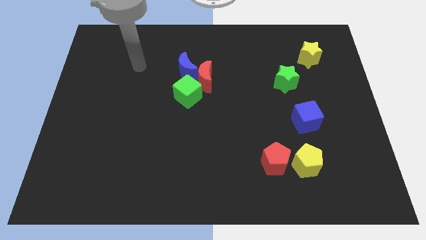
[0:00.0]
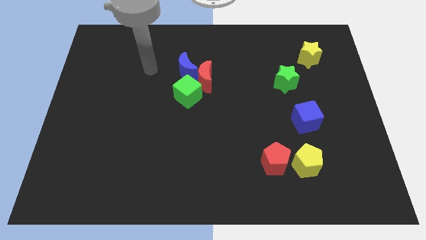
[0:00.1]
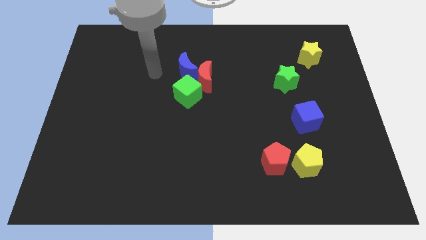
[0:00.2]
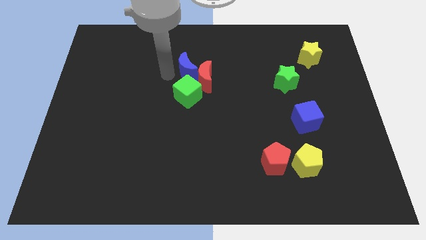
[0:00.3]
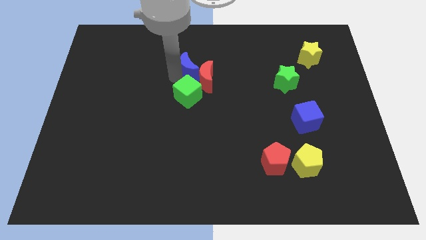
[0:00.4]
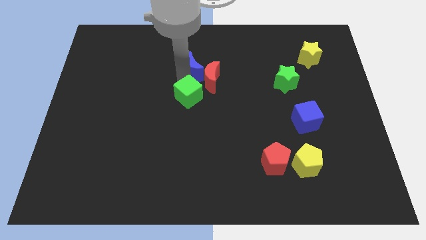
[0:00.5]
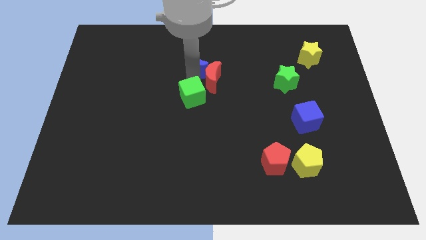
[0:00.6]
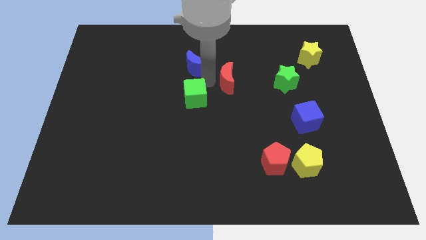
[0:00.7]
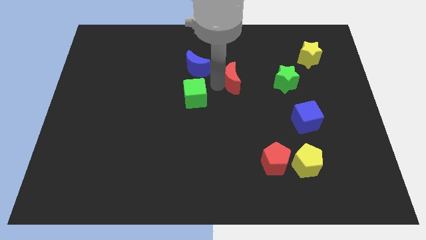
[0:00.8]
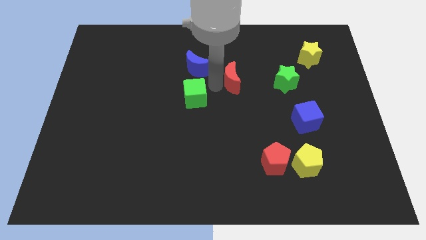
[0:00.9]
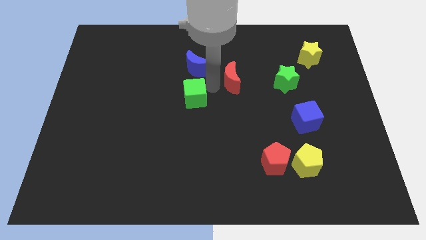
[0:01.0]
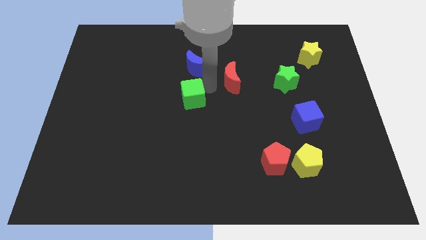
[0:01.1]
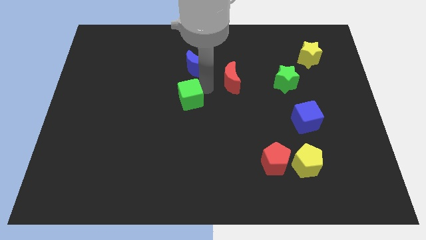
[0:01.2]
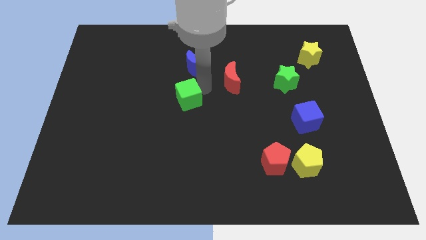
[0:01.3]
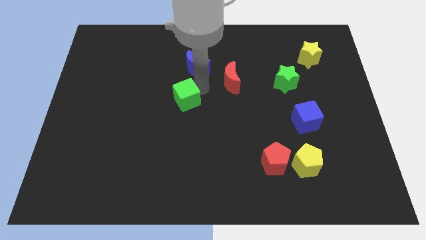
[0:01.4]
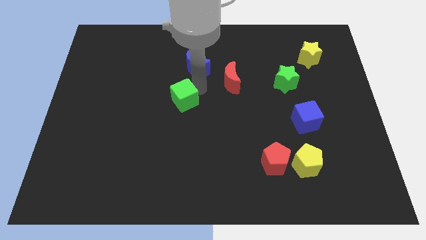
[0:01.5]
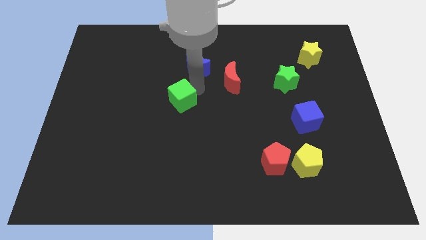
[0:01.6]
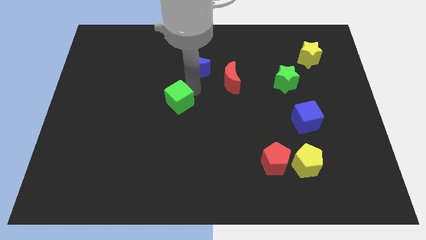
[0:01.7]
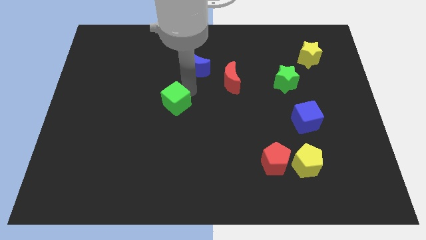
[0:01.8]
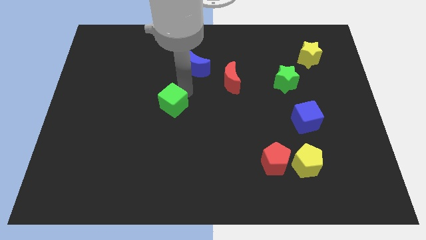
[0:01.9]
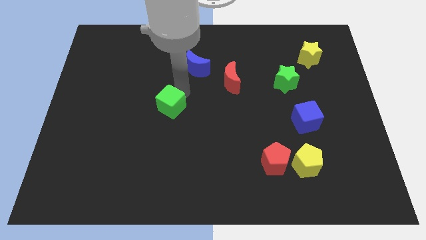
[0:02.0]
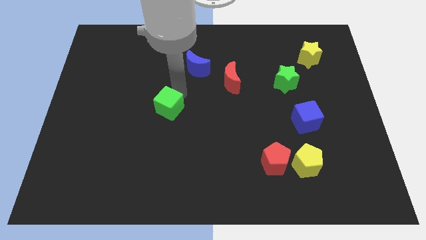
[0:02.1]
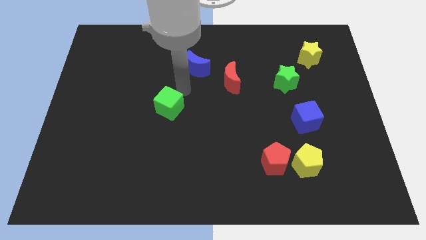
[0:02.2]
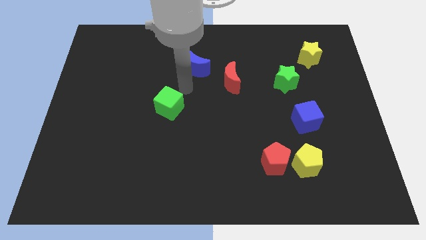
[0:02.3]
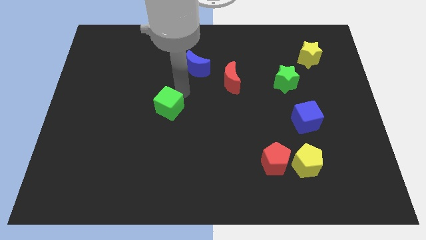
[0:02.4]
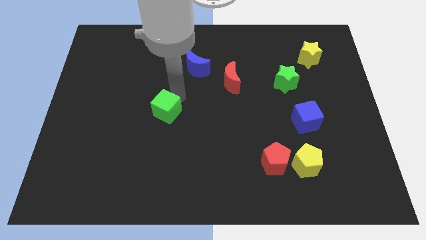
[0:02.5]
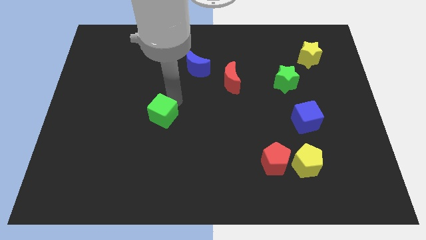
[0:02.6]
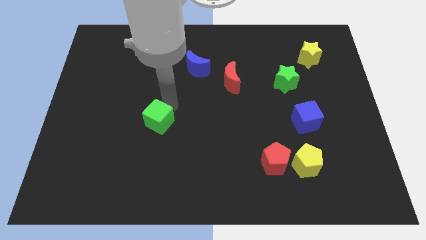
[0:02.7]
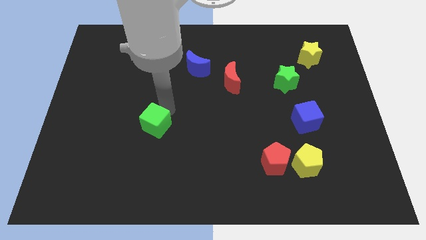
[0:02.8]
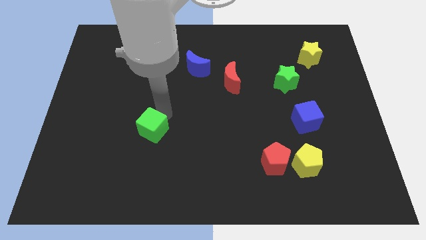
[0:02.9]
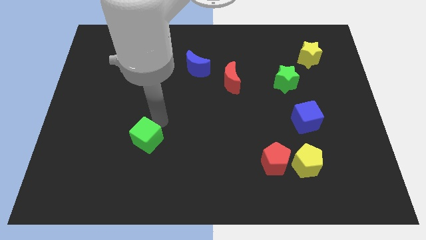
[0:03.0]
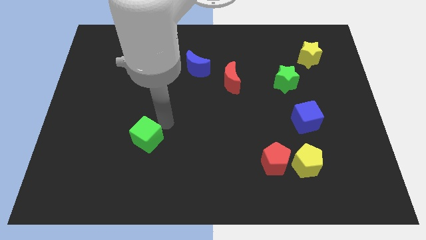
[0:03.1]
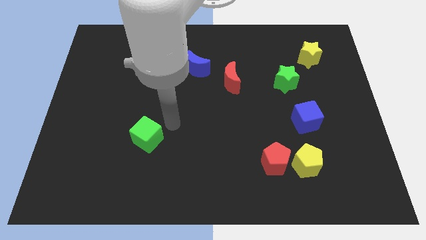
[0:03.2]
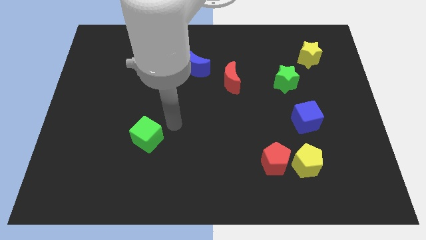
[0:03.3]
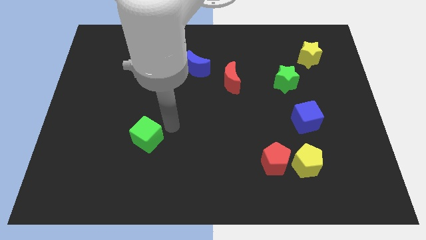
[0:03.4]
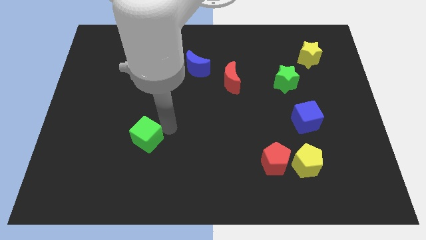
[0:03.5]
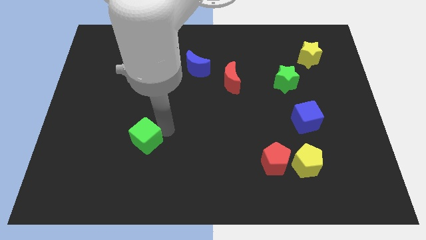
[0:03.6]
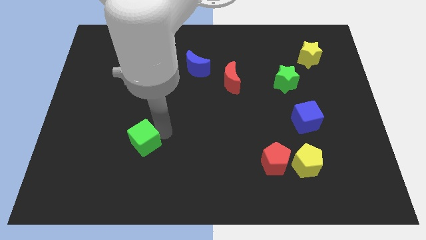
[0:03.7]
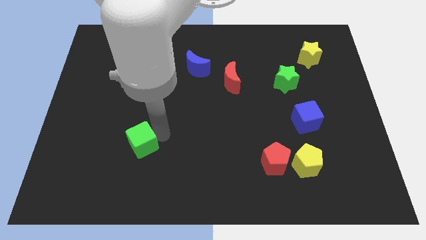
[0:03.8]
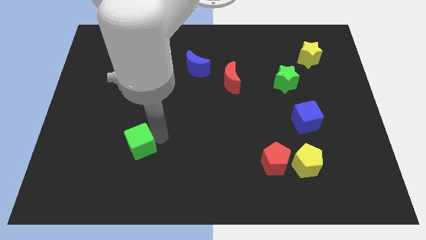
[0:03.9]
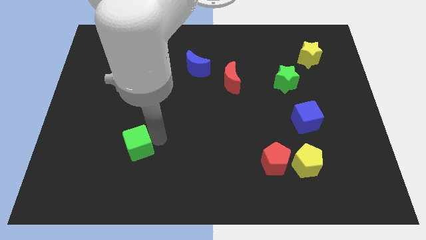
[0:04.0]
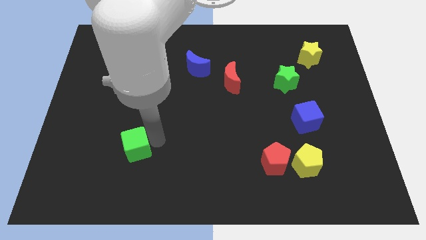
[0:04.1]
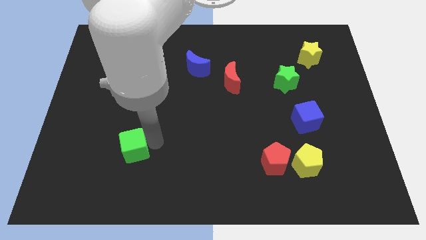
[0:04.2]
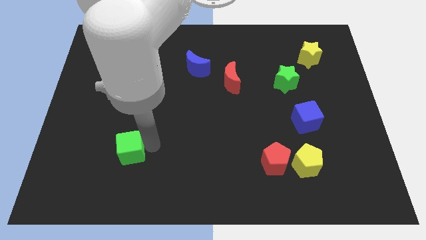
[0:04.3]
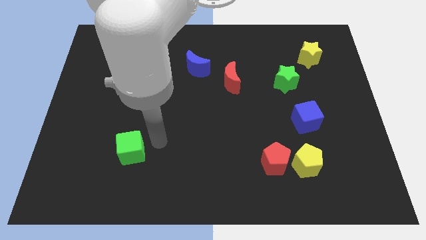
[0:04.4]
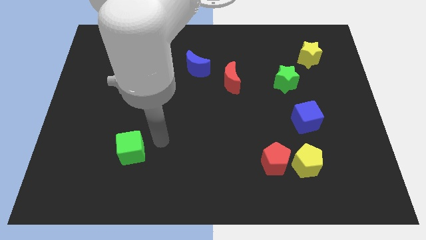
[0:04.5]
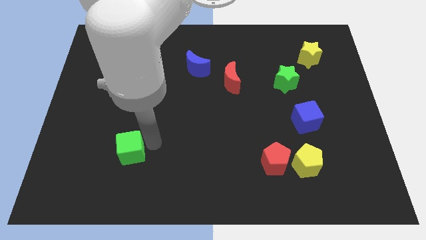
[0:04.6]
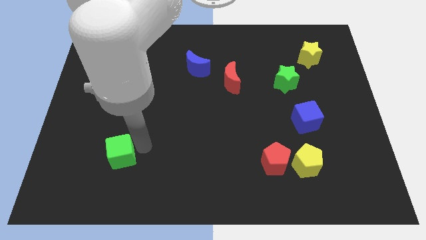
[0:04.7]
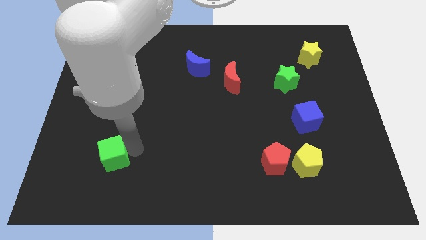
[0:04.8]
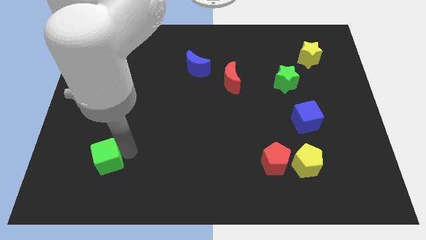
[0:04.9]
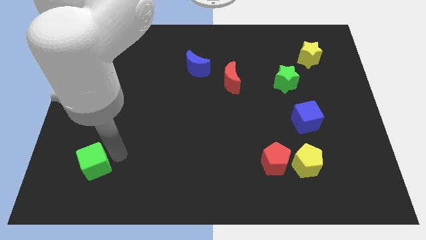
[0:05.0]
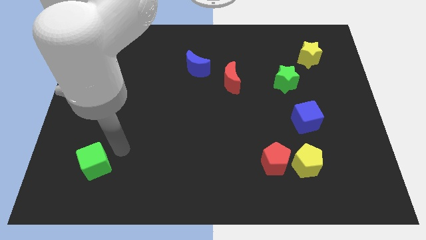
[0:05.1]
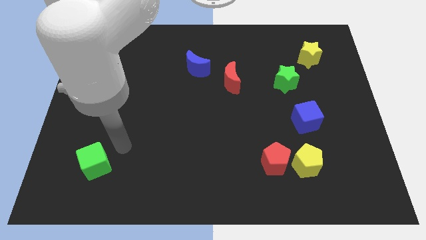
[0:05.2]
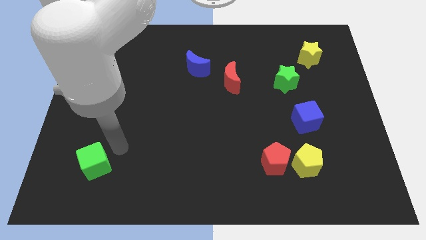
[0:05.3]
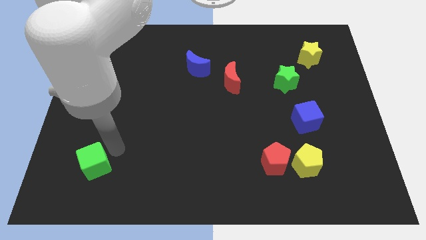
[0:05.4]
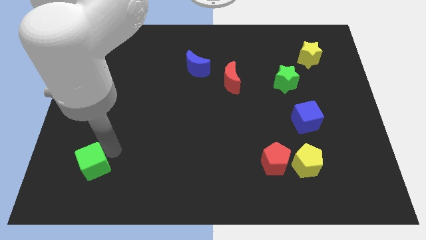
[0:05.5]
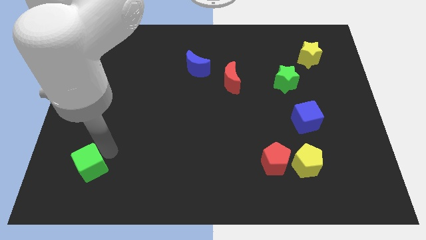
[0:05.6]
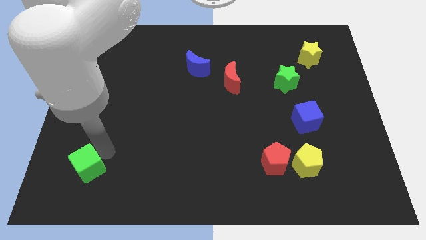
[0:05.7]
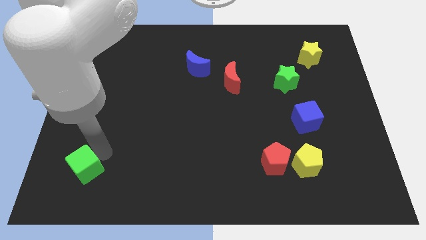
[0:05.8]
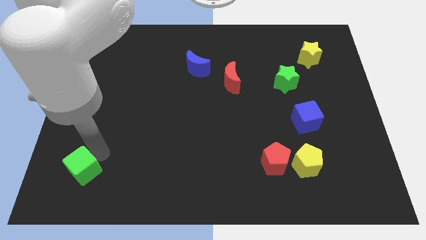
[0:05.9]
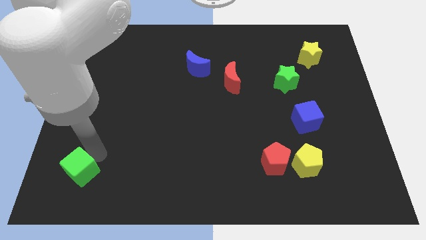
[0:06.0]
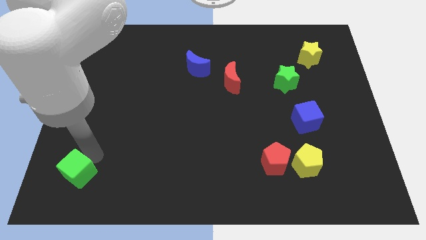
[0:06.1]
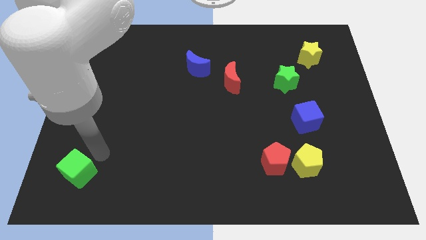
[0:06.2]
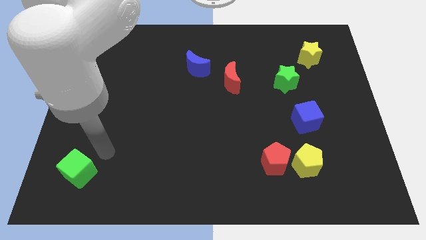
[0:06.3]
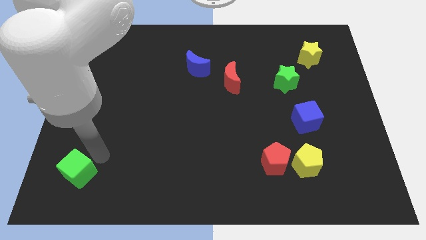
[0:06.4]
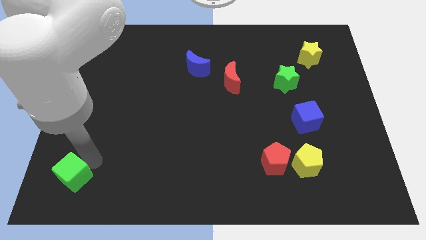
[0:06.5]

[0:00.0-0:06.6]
put the green cube to the bottom left
